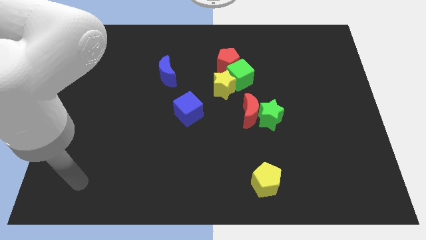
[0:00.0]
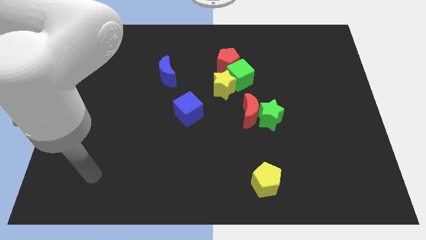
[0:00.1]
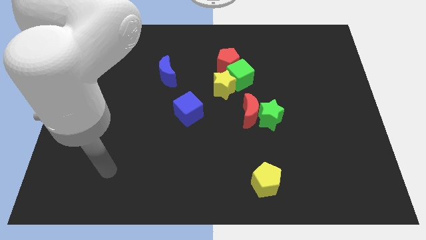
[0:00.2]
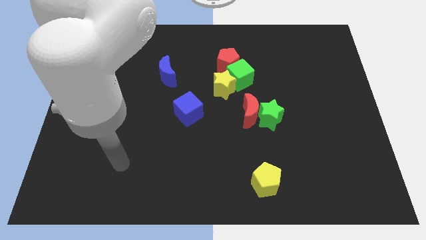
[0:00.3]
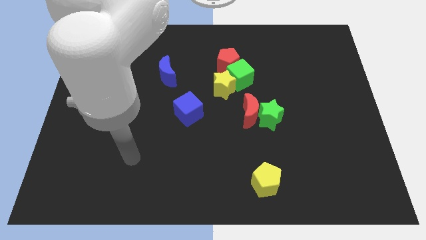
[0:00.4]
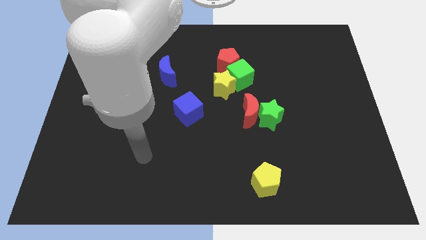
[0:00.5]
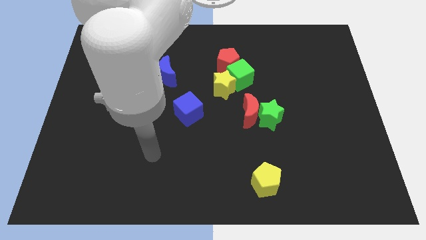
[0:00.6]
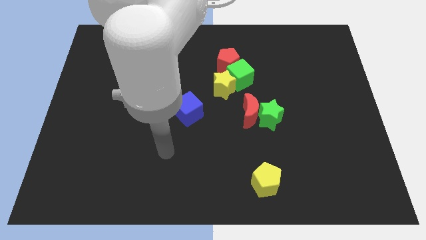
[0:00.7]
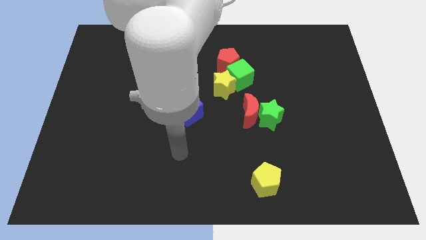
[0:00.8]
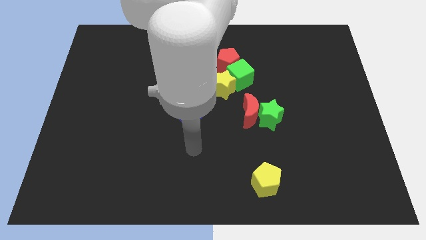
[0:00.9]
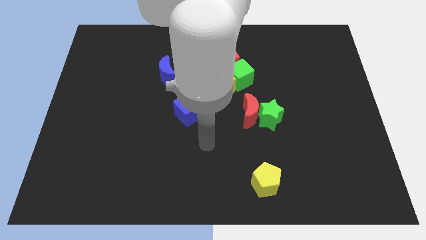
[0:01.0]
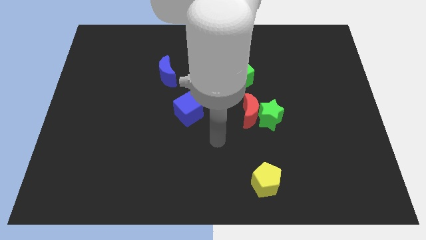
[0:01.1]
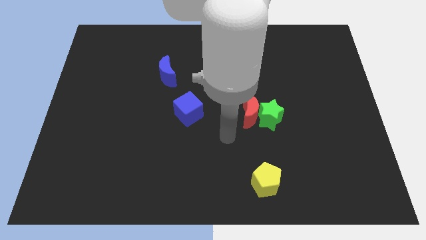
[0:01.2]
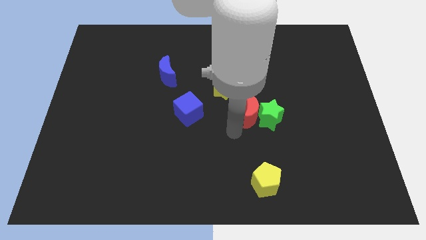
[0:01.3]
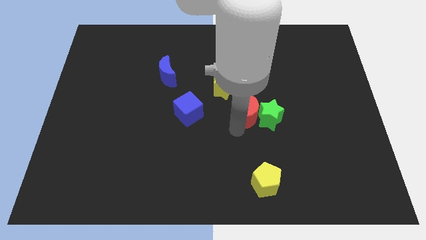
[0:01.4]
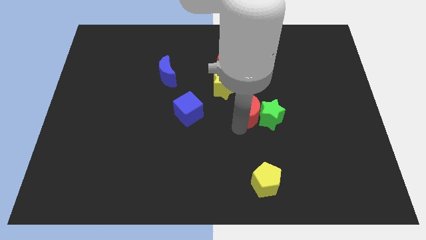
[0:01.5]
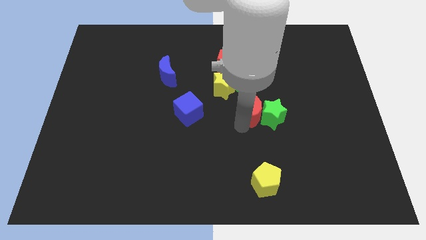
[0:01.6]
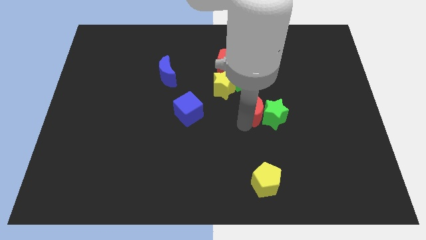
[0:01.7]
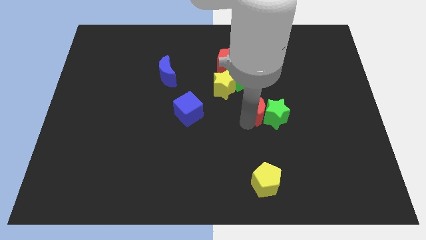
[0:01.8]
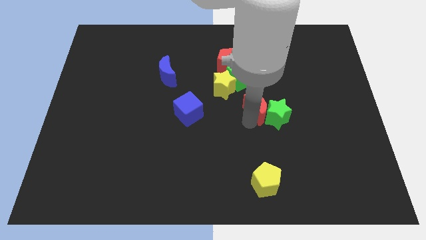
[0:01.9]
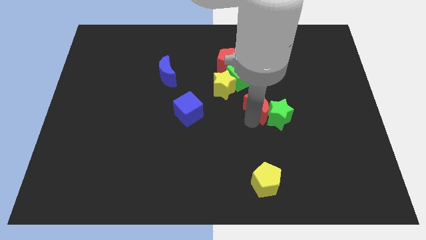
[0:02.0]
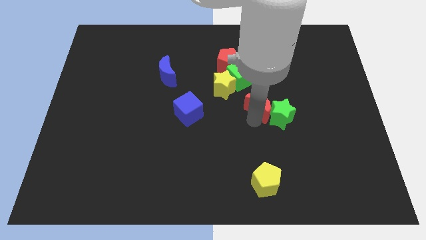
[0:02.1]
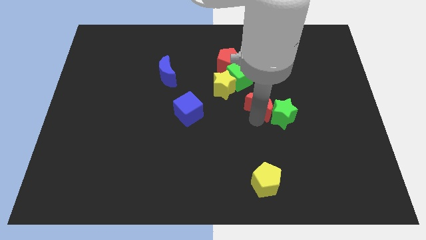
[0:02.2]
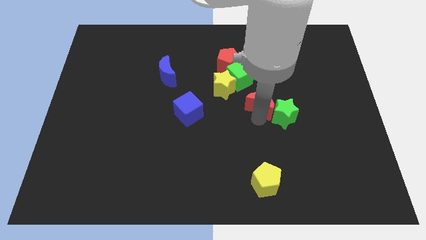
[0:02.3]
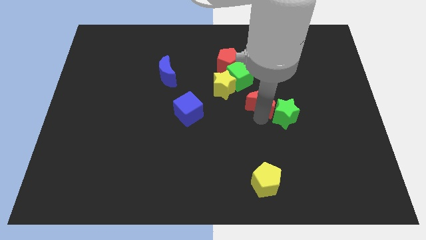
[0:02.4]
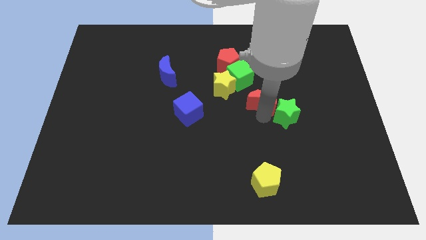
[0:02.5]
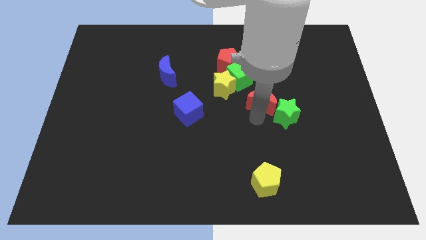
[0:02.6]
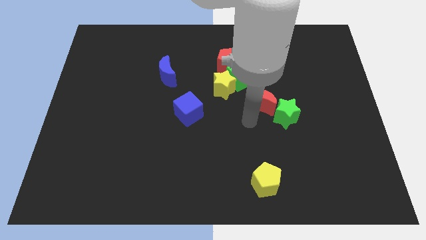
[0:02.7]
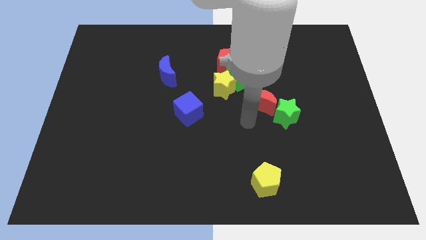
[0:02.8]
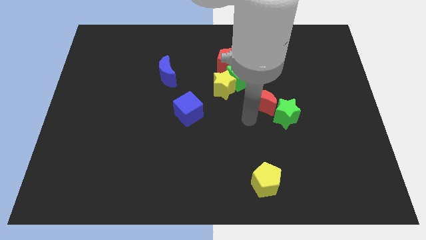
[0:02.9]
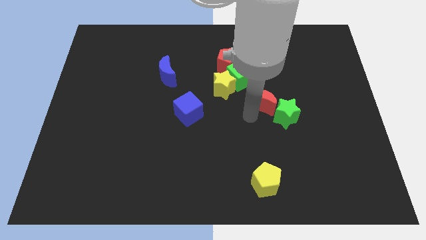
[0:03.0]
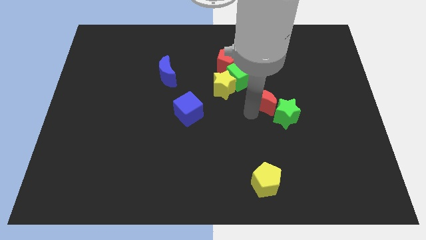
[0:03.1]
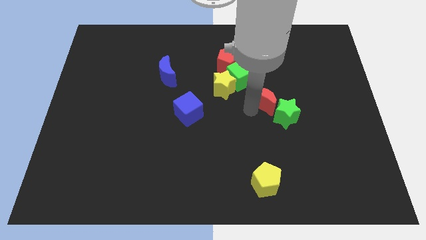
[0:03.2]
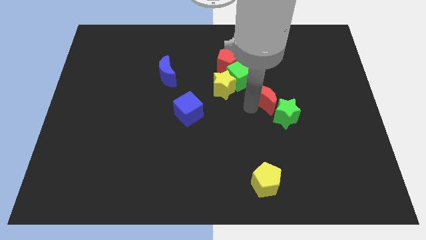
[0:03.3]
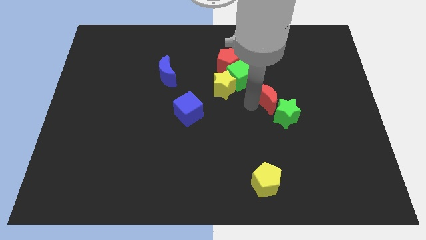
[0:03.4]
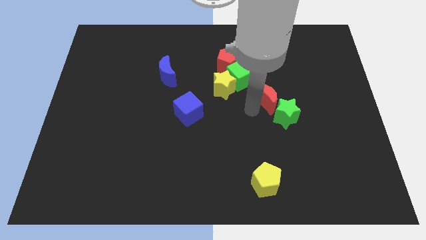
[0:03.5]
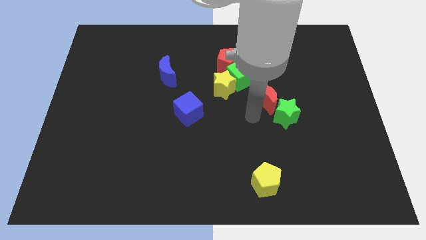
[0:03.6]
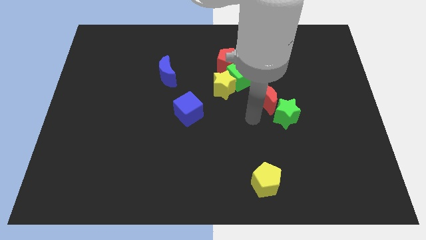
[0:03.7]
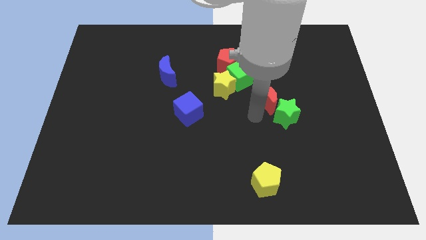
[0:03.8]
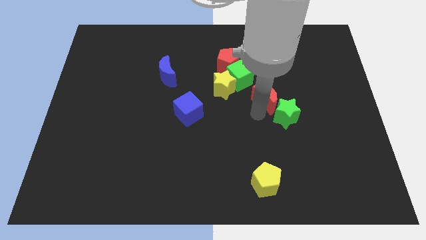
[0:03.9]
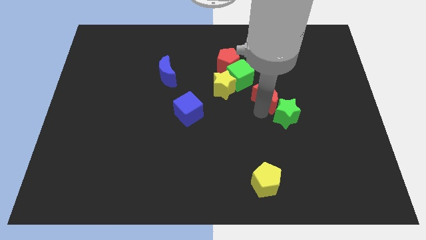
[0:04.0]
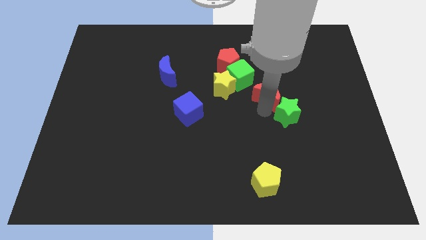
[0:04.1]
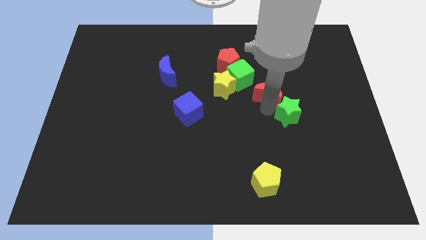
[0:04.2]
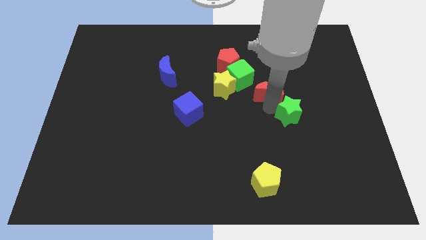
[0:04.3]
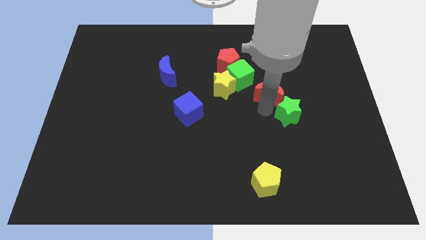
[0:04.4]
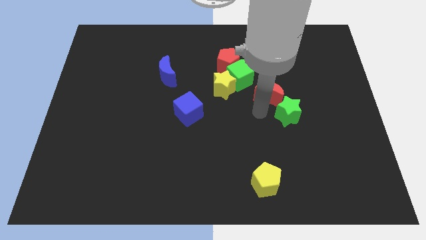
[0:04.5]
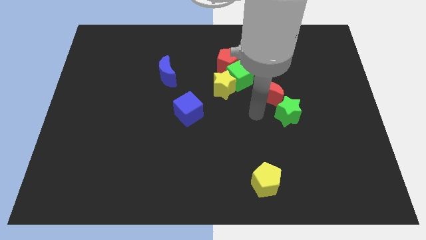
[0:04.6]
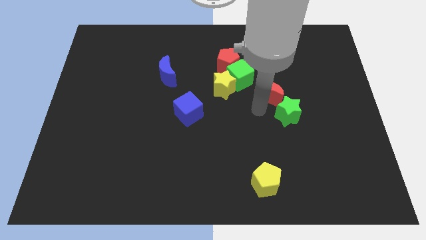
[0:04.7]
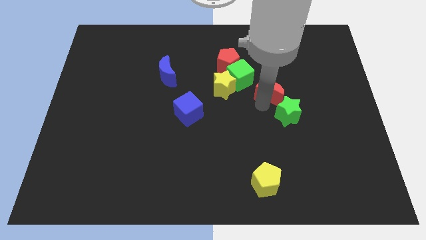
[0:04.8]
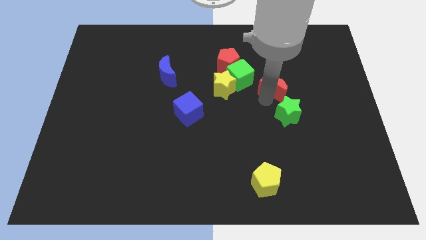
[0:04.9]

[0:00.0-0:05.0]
slide the red moon to the right side of the green cube

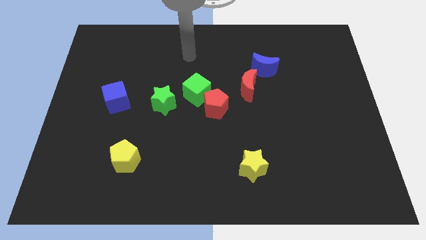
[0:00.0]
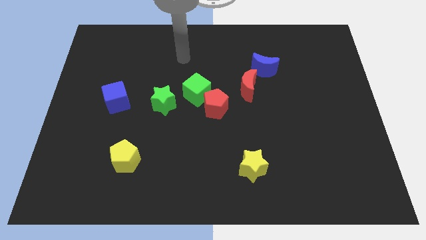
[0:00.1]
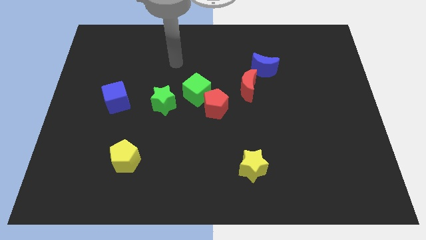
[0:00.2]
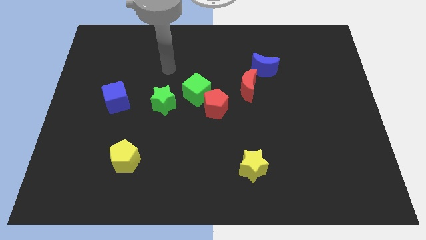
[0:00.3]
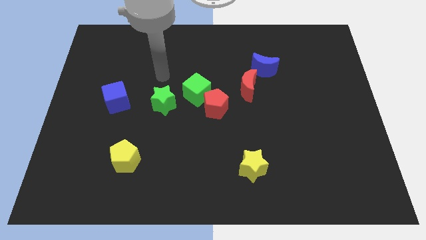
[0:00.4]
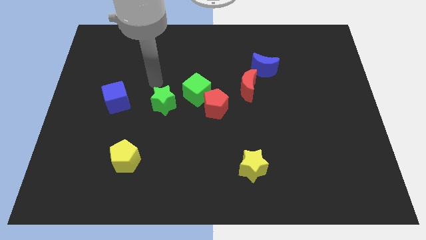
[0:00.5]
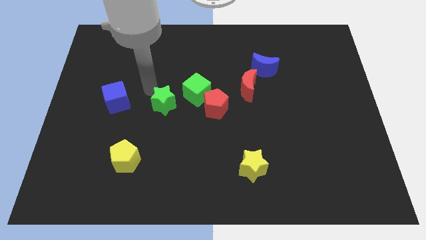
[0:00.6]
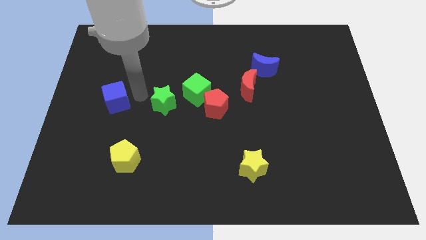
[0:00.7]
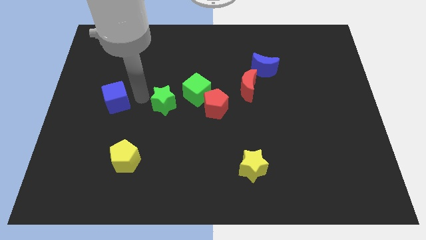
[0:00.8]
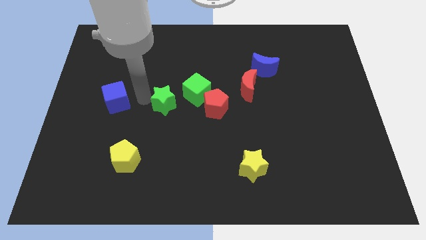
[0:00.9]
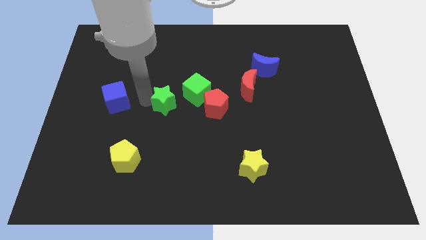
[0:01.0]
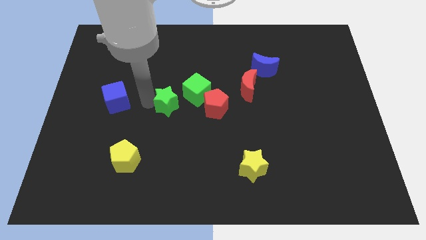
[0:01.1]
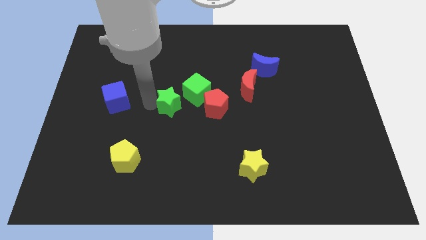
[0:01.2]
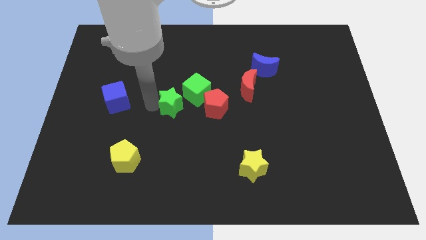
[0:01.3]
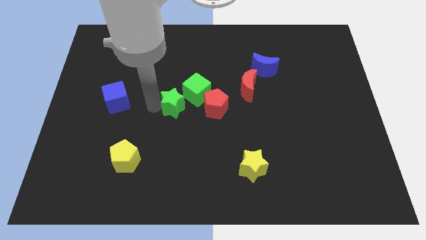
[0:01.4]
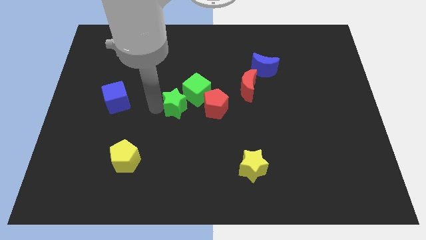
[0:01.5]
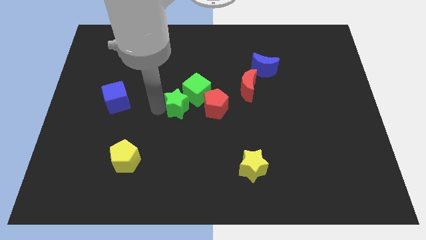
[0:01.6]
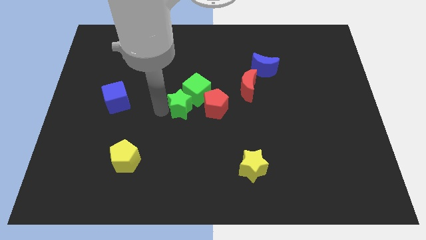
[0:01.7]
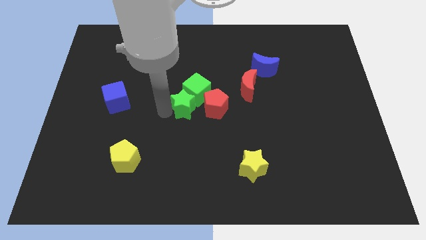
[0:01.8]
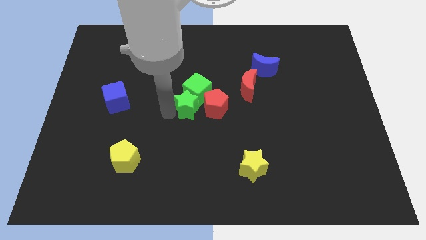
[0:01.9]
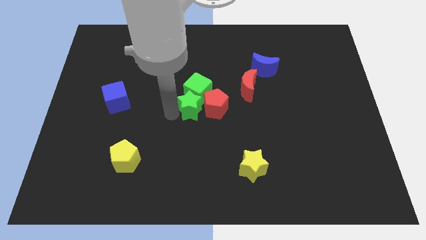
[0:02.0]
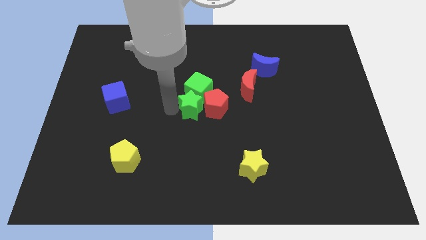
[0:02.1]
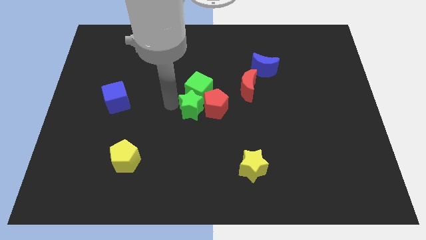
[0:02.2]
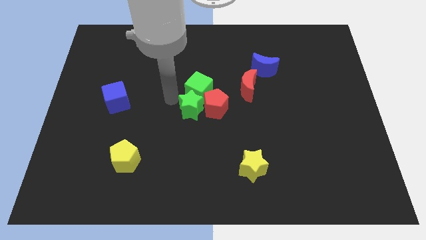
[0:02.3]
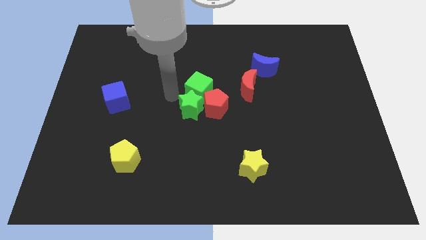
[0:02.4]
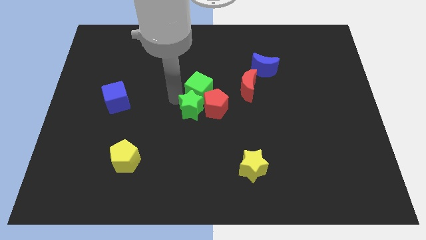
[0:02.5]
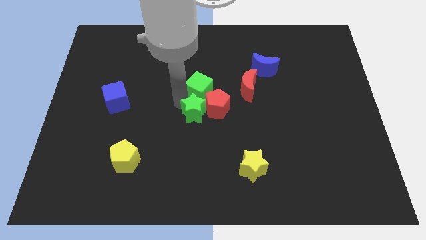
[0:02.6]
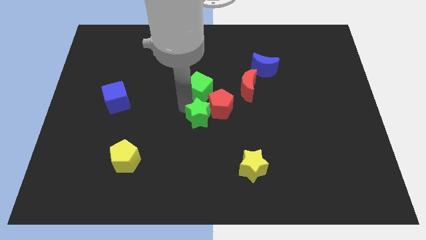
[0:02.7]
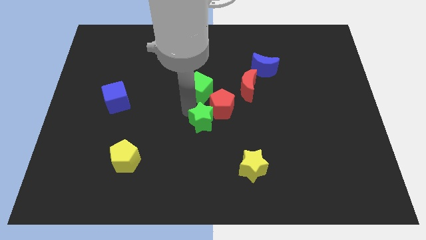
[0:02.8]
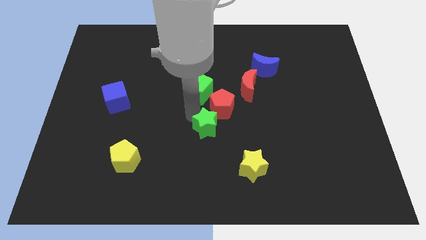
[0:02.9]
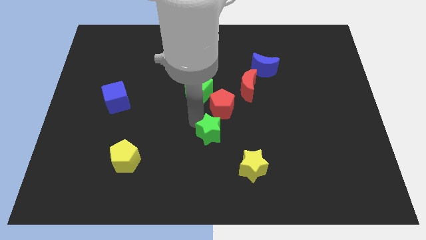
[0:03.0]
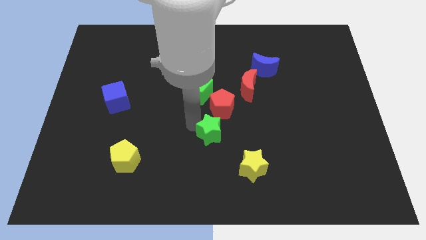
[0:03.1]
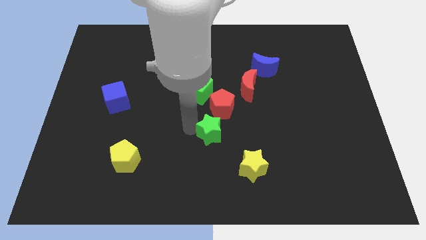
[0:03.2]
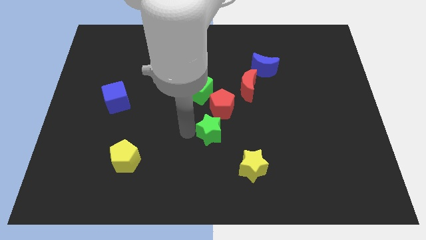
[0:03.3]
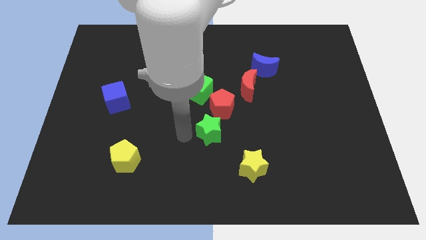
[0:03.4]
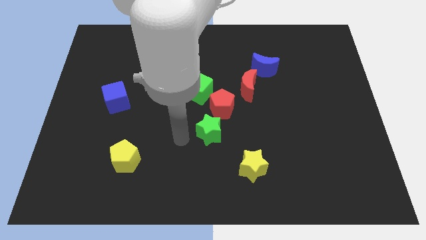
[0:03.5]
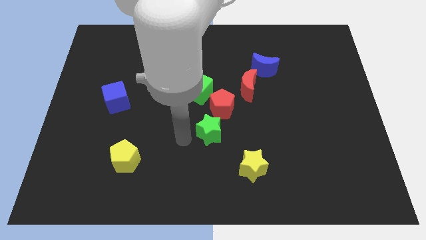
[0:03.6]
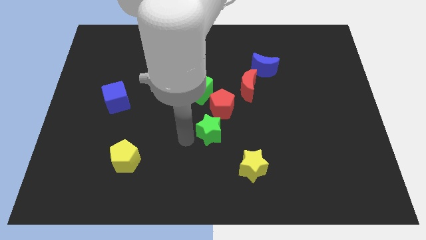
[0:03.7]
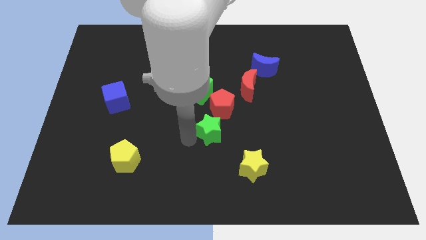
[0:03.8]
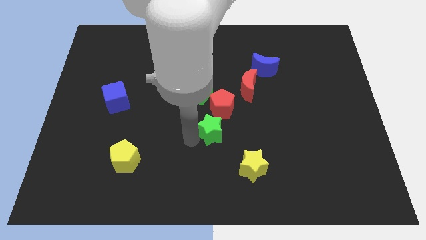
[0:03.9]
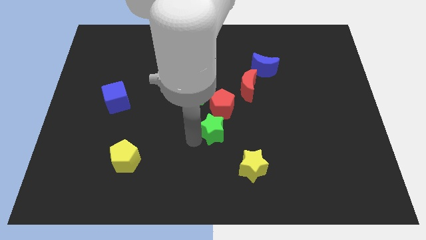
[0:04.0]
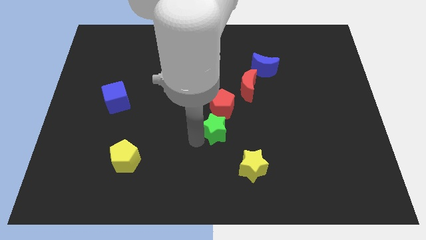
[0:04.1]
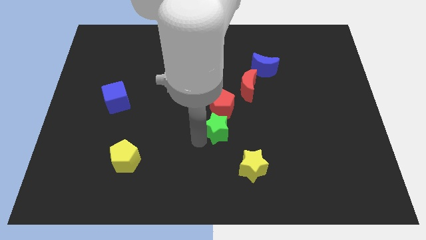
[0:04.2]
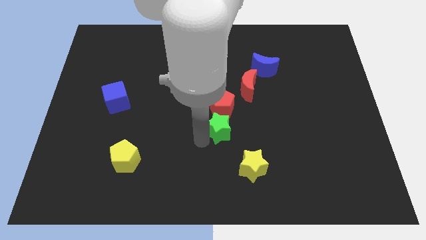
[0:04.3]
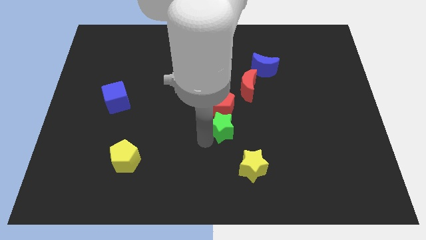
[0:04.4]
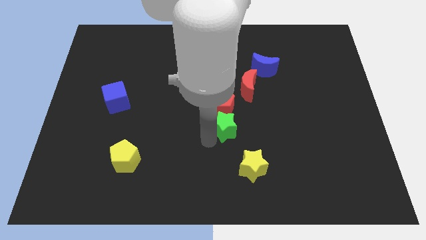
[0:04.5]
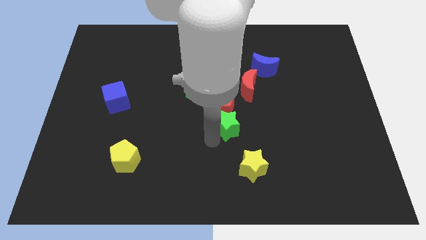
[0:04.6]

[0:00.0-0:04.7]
move the green star to the top side of the yellow star
